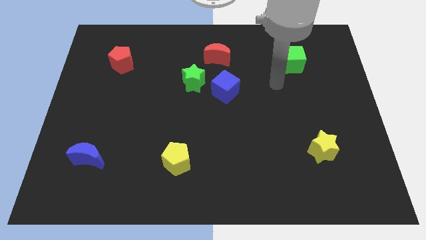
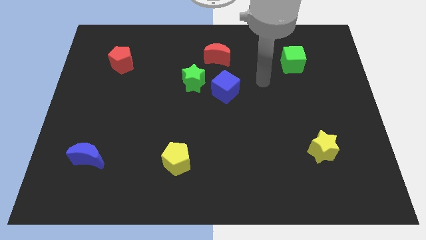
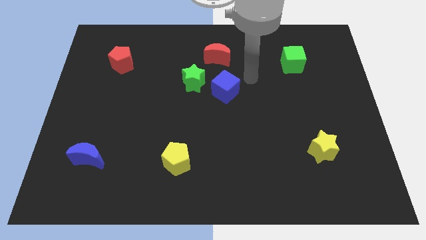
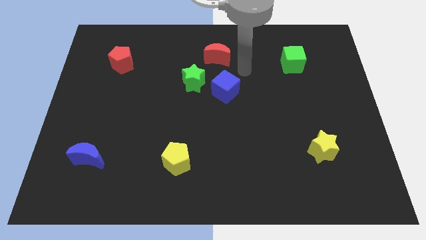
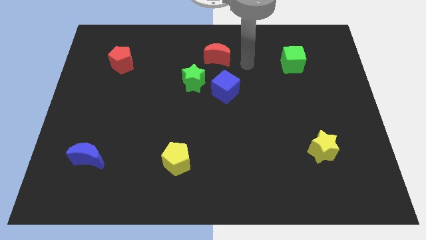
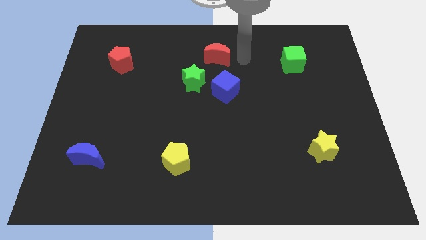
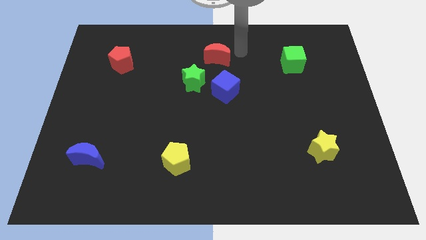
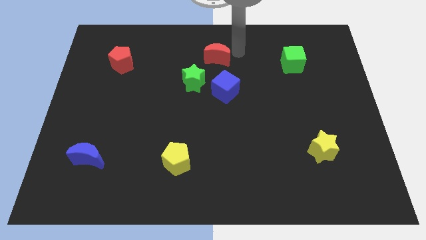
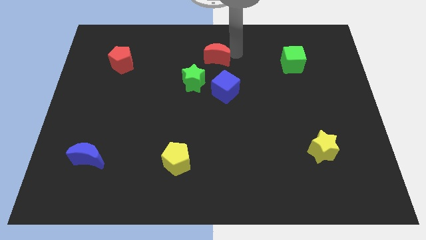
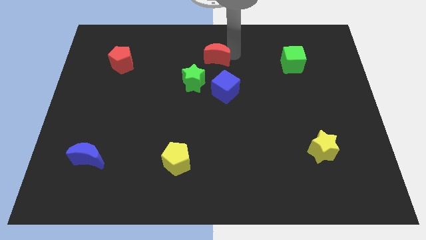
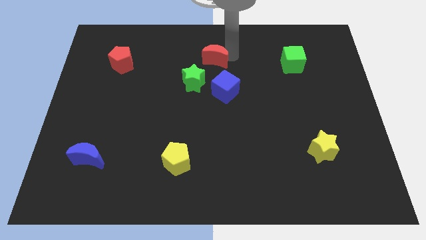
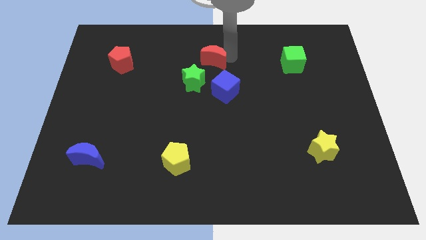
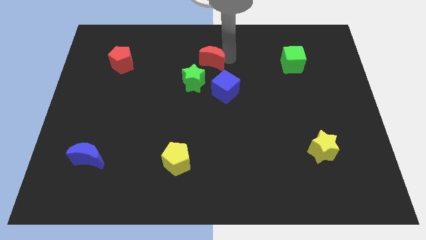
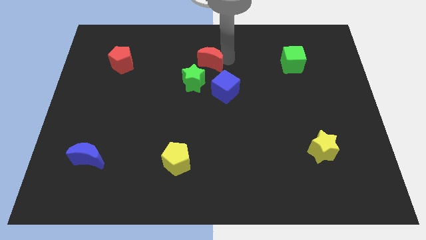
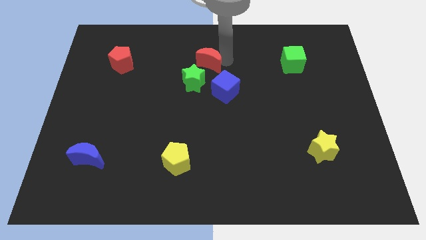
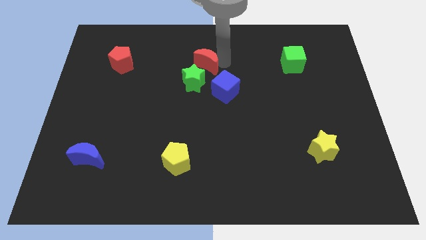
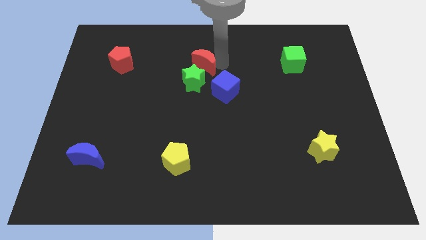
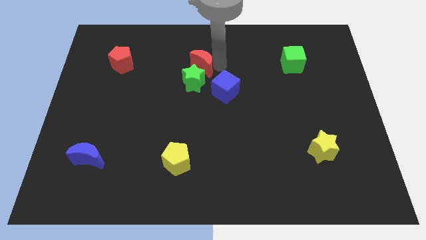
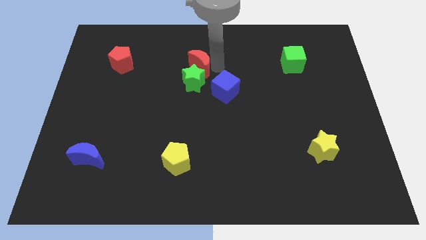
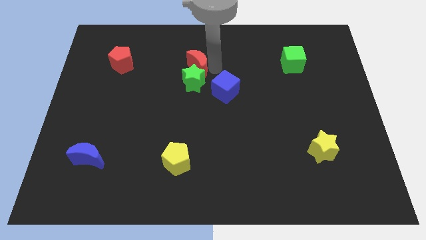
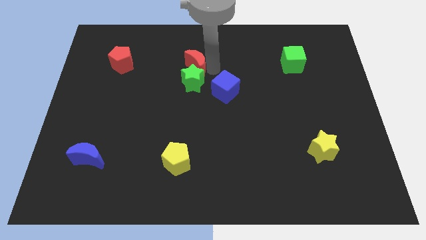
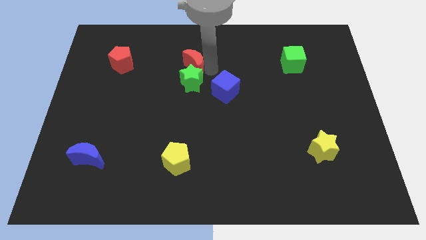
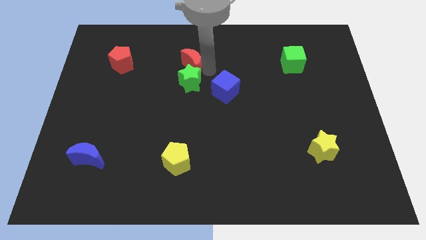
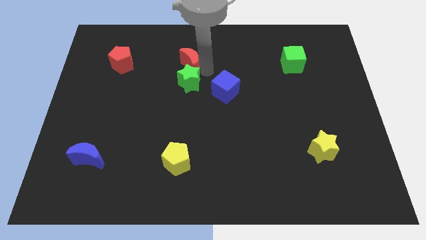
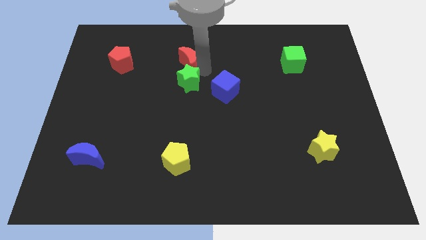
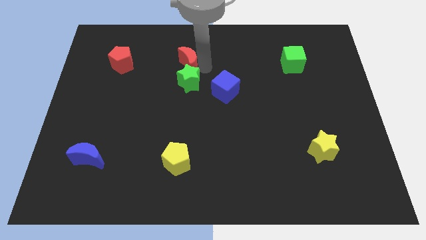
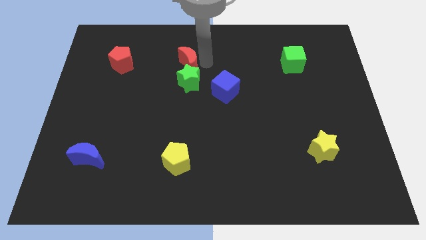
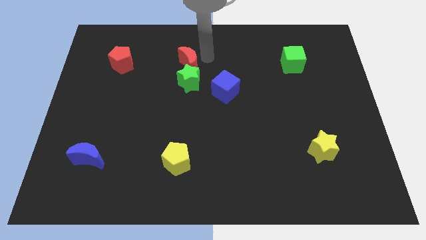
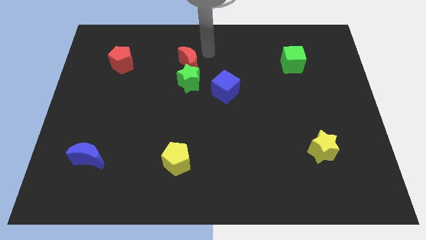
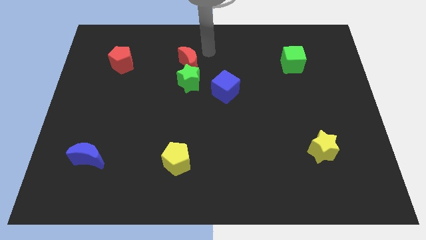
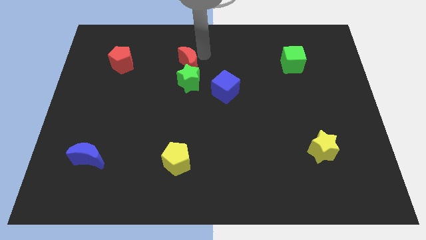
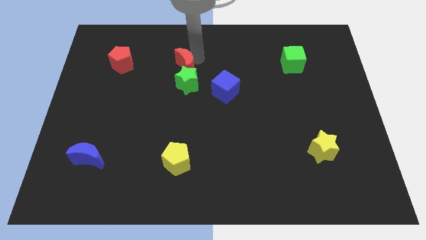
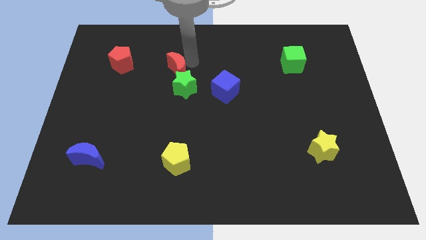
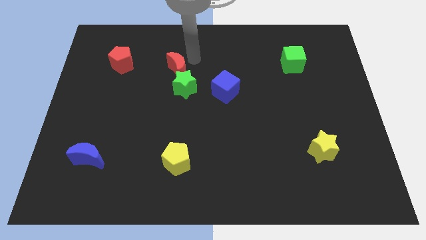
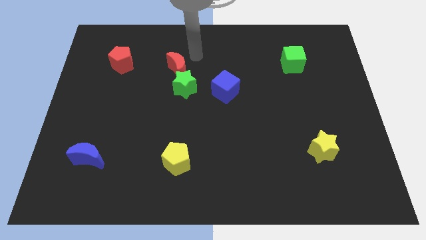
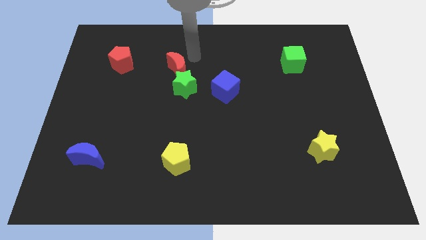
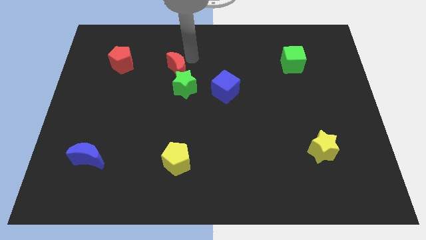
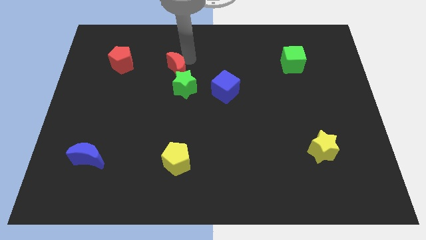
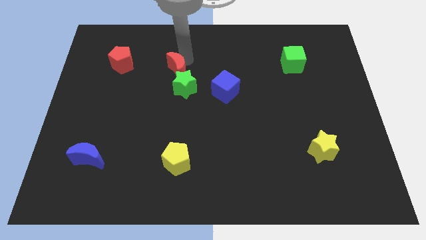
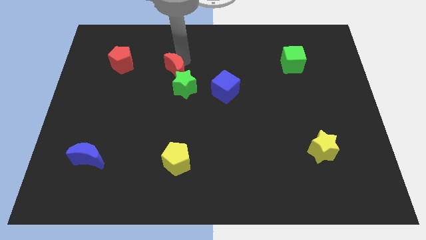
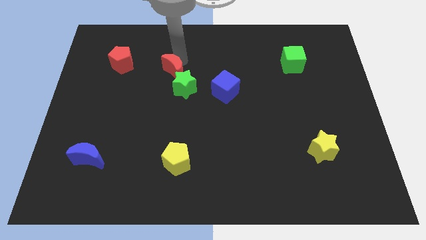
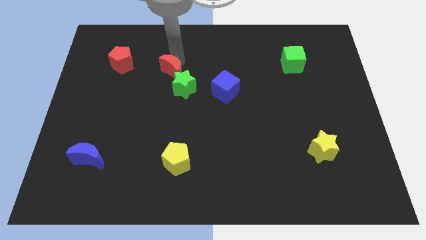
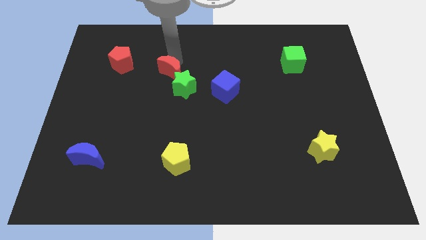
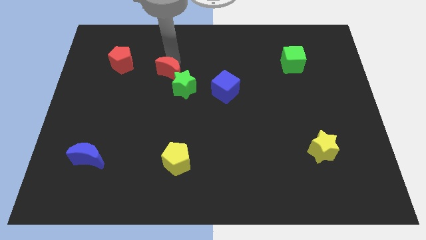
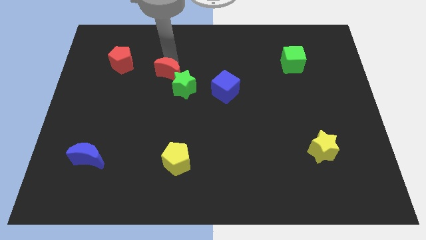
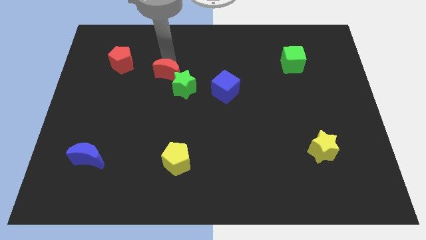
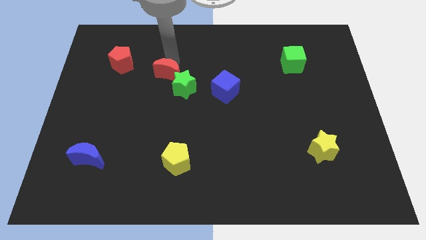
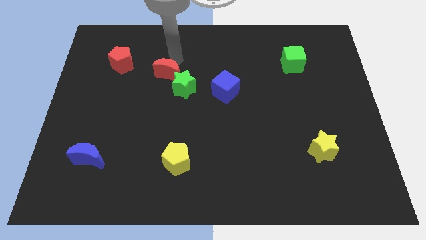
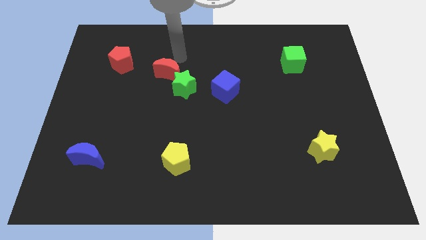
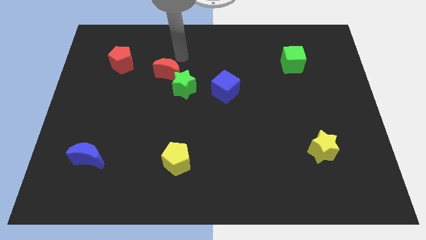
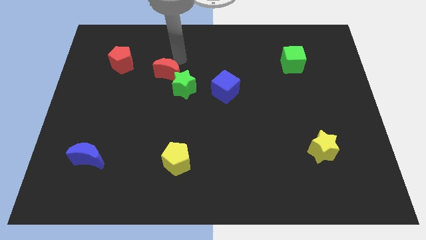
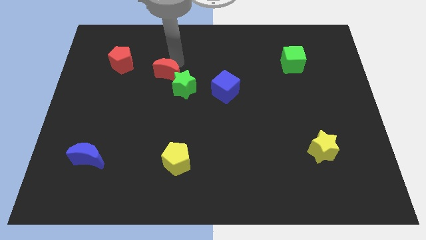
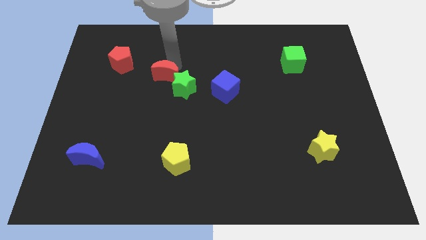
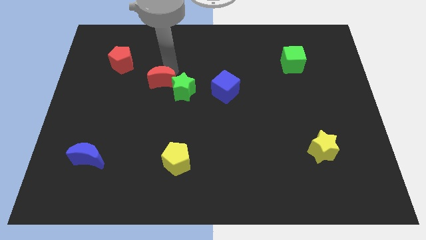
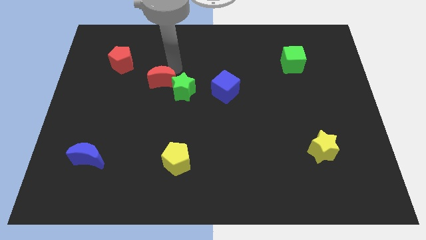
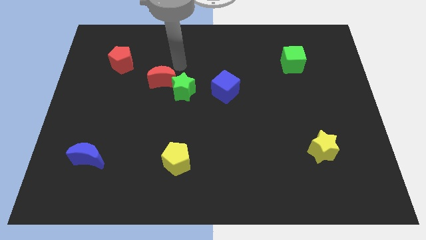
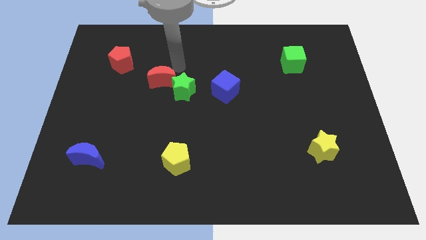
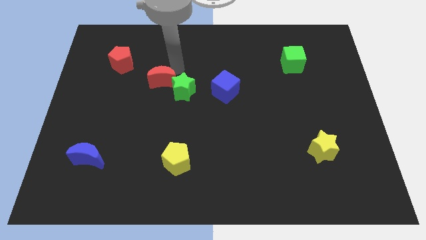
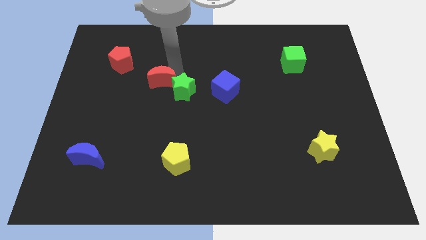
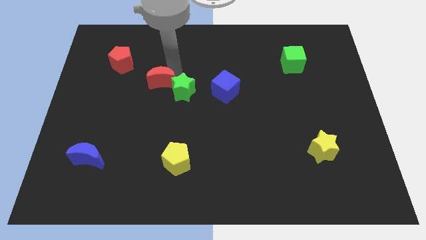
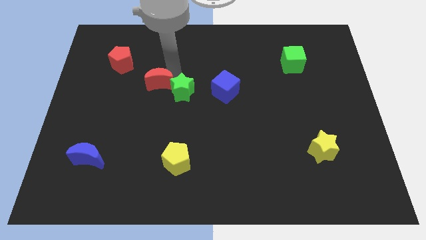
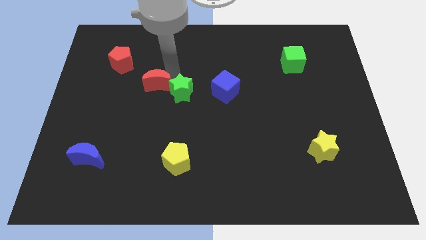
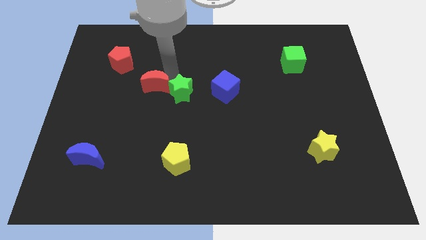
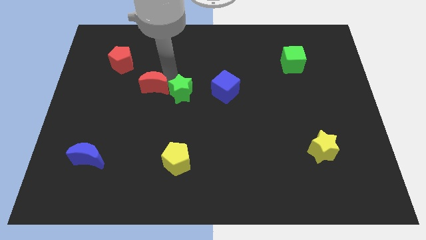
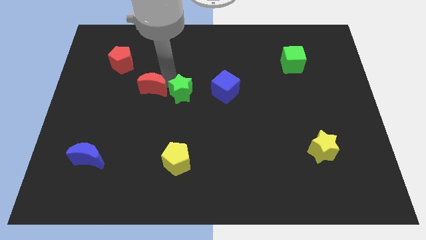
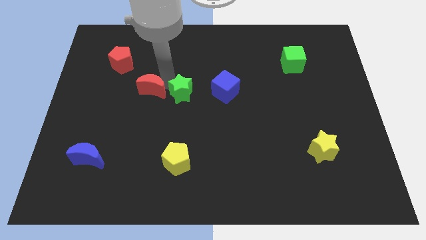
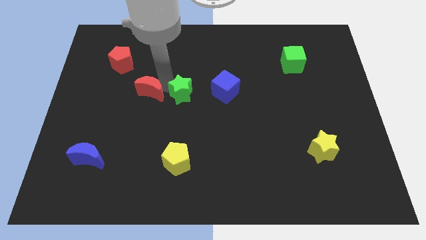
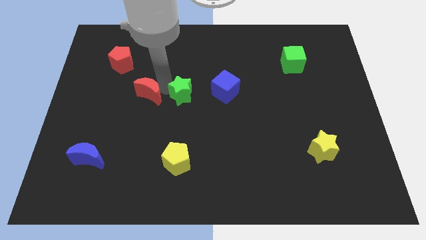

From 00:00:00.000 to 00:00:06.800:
move the red moon downwards and left diagonally

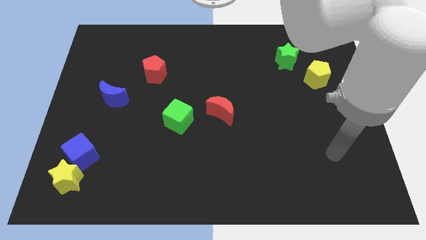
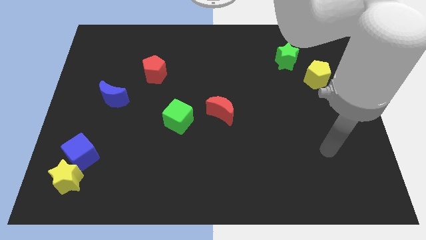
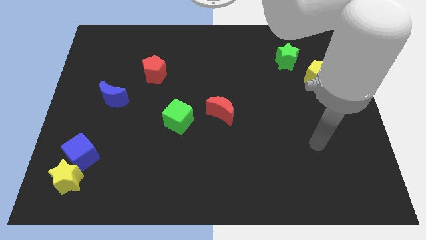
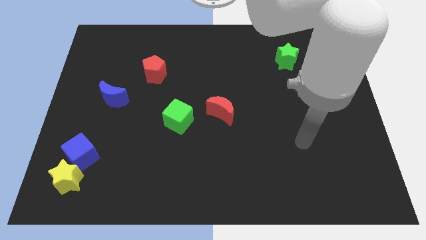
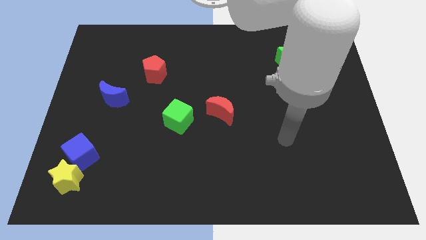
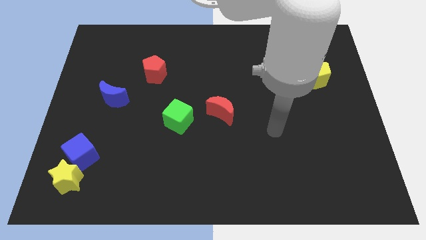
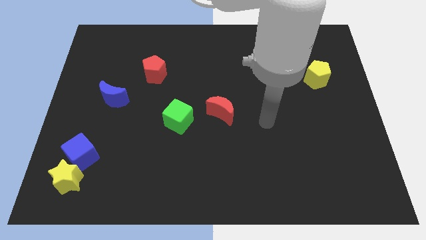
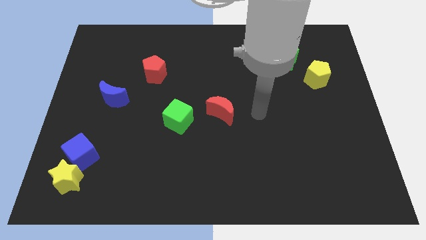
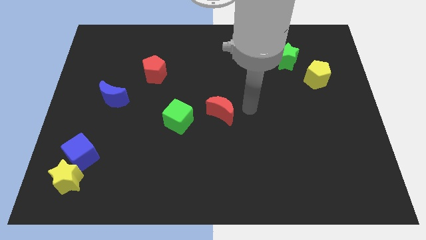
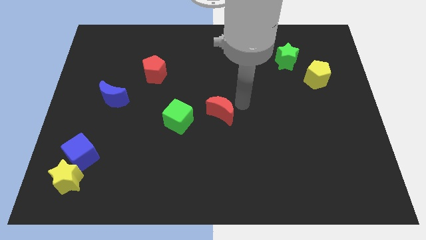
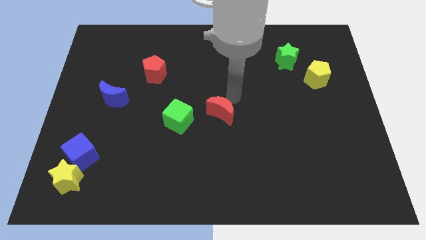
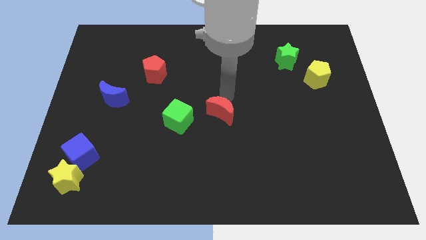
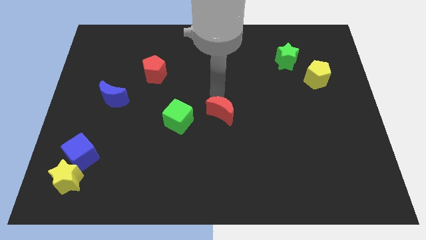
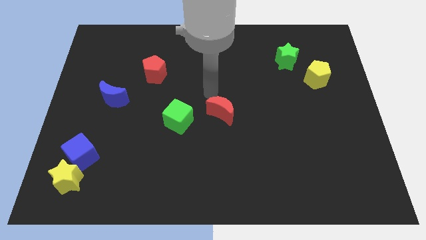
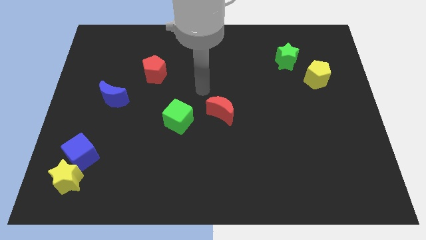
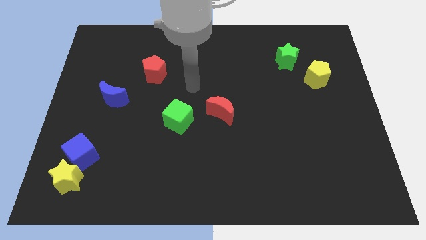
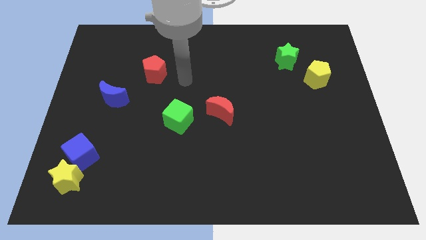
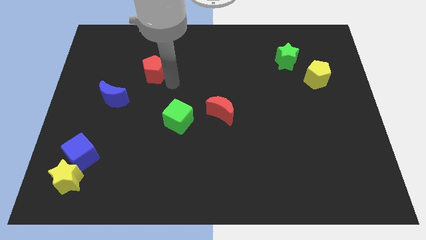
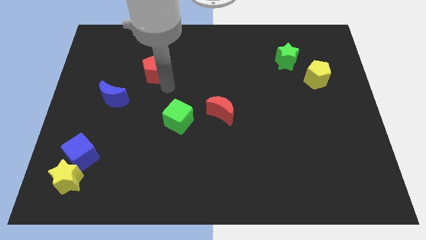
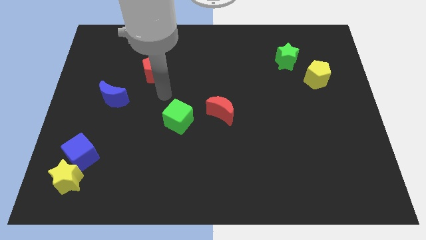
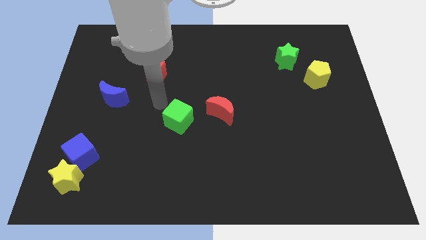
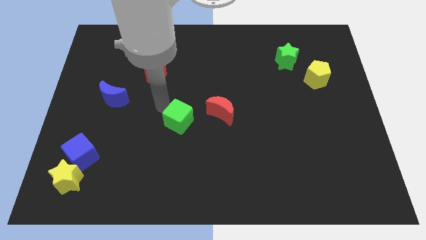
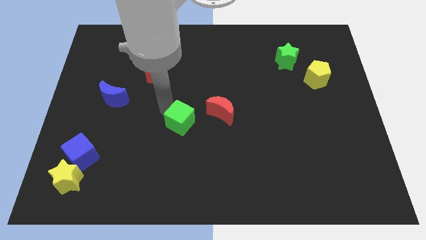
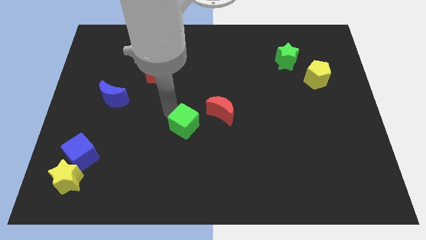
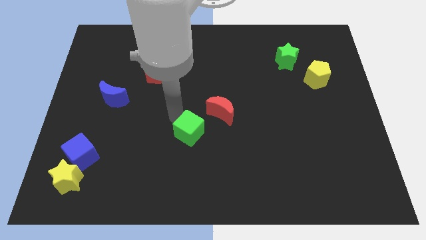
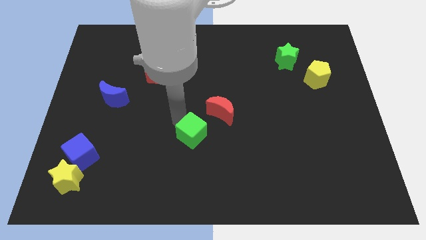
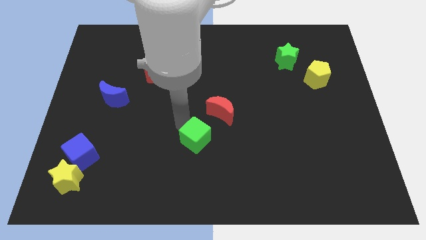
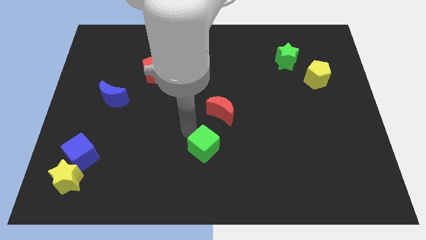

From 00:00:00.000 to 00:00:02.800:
slightly slide the green cube down and right diagonally
